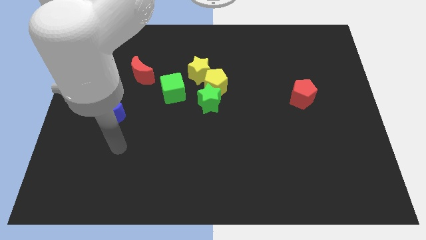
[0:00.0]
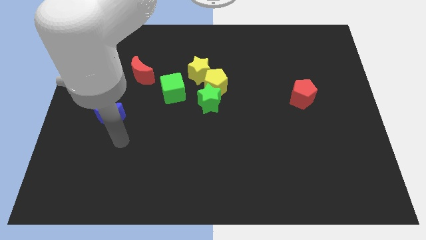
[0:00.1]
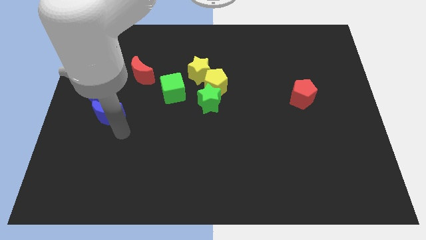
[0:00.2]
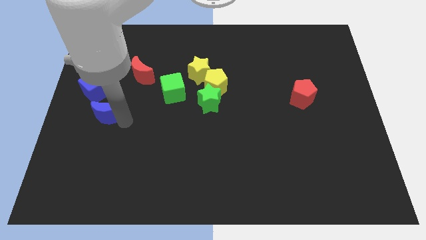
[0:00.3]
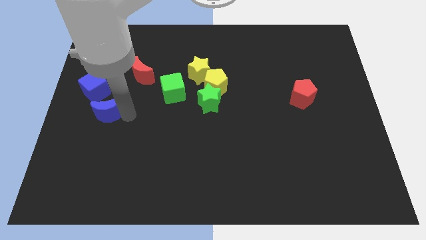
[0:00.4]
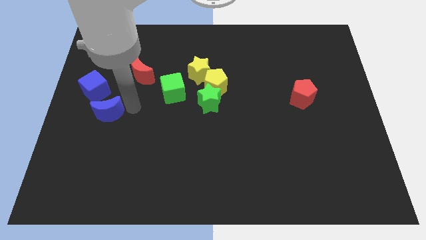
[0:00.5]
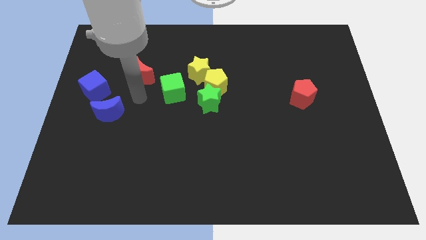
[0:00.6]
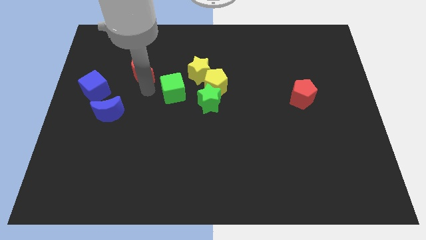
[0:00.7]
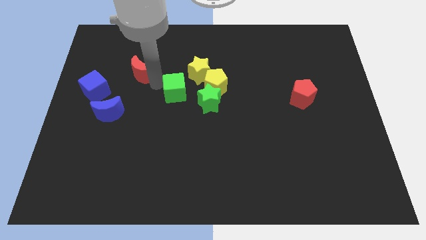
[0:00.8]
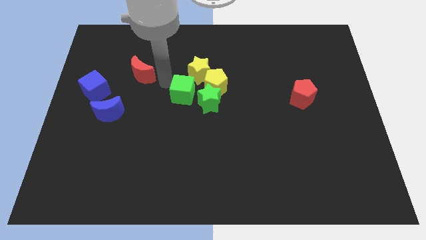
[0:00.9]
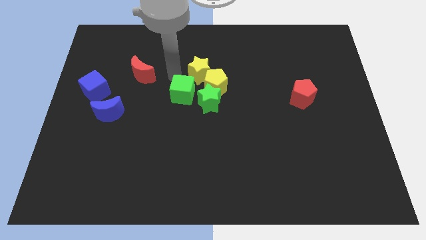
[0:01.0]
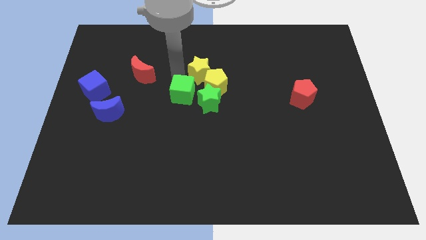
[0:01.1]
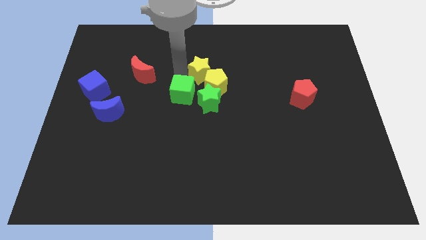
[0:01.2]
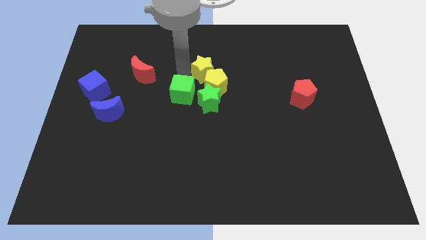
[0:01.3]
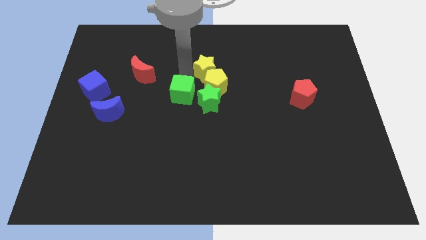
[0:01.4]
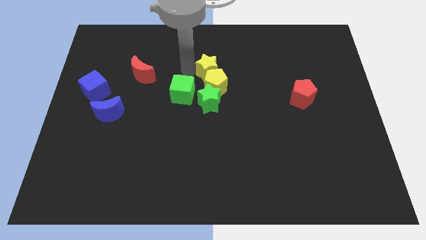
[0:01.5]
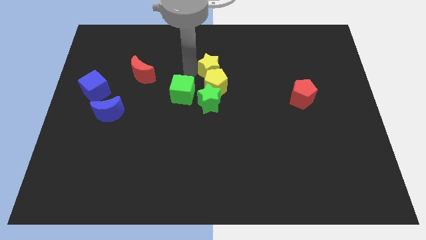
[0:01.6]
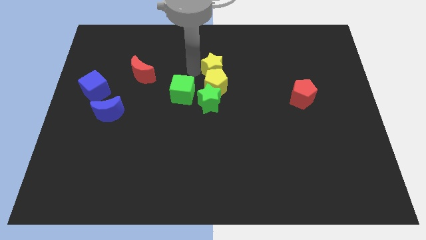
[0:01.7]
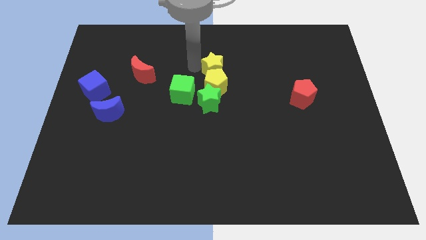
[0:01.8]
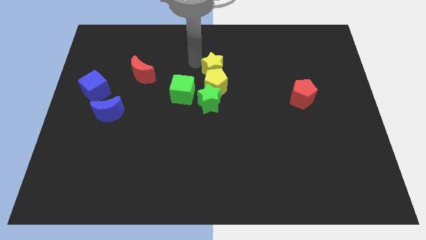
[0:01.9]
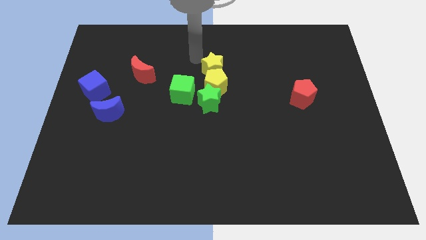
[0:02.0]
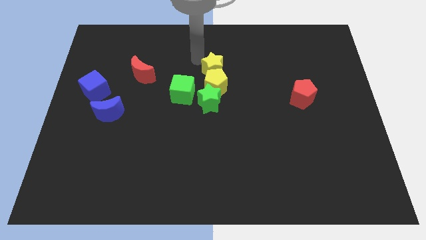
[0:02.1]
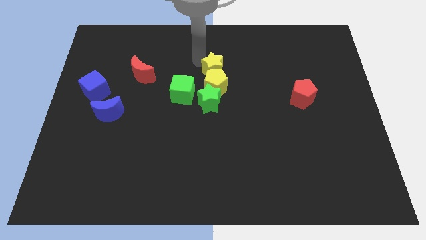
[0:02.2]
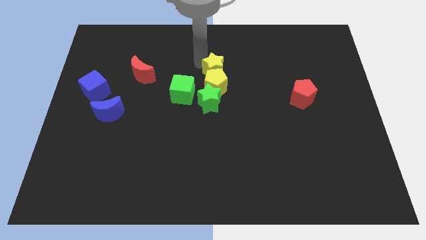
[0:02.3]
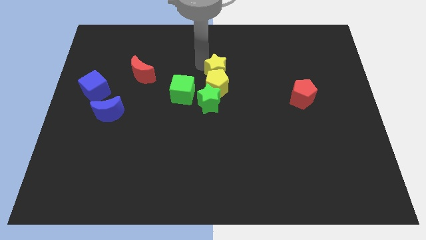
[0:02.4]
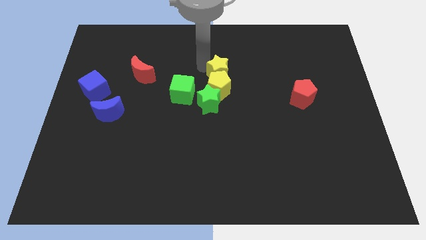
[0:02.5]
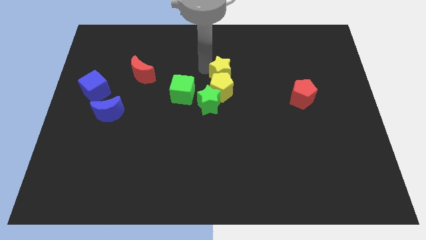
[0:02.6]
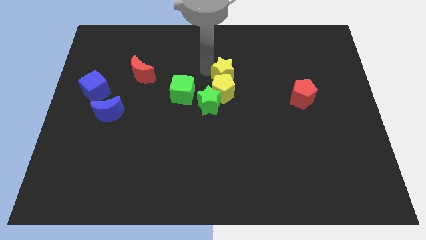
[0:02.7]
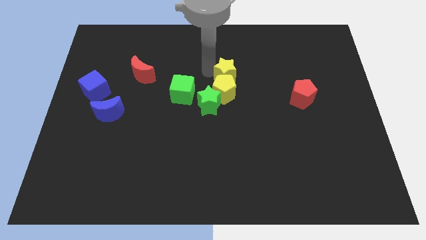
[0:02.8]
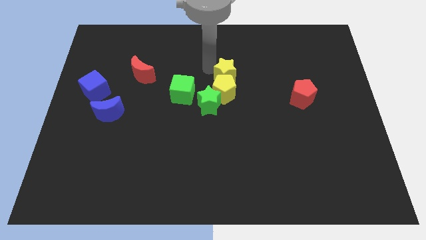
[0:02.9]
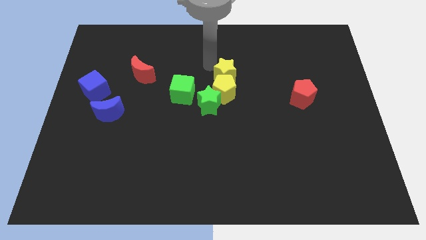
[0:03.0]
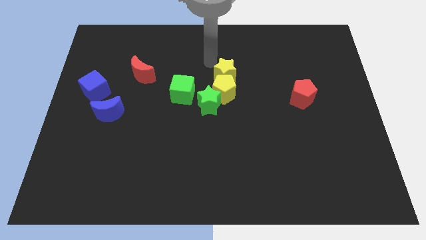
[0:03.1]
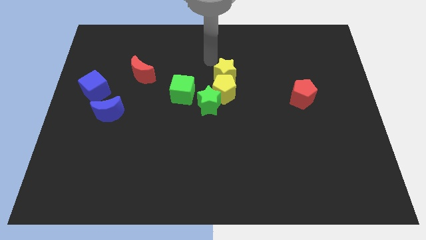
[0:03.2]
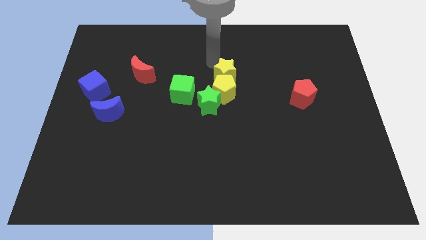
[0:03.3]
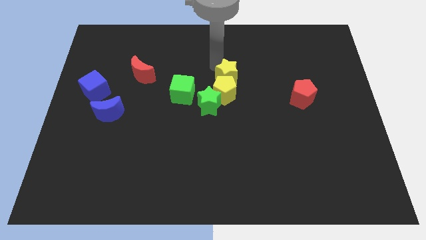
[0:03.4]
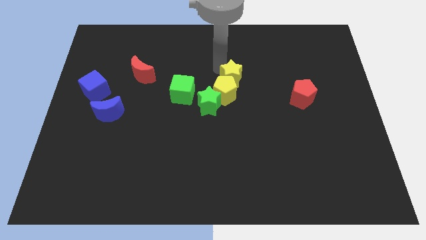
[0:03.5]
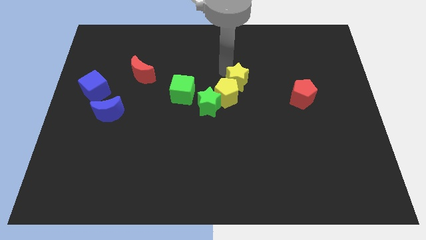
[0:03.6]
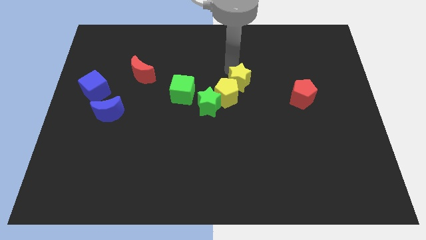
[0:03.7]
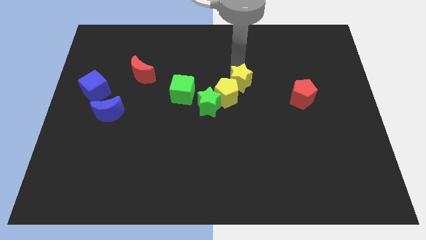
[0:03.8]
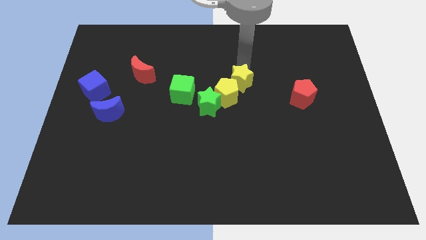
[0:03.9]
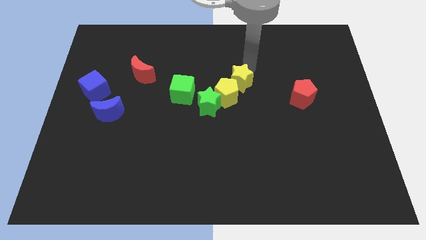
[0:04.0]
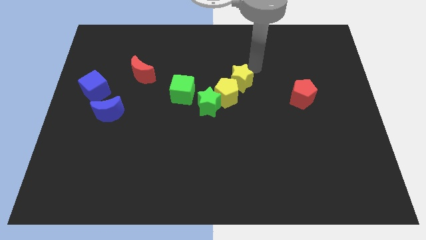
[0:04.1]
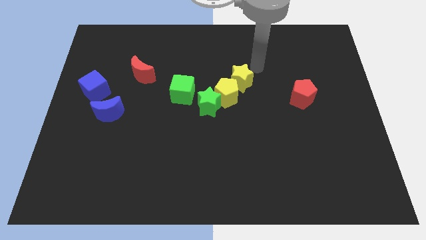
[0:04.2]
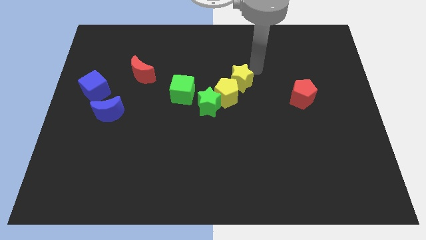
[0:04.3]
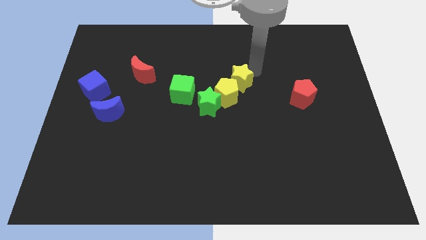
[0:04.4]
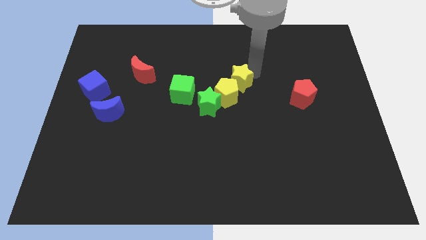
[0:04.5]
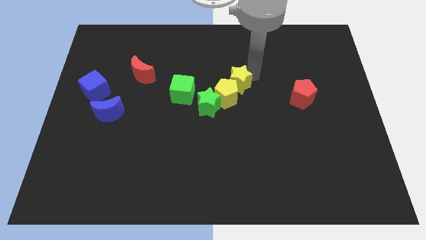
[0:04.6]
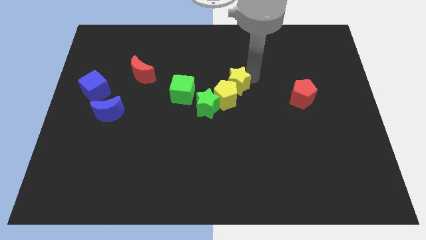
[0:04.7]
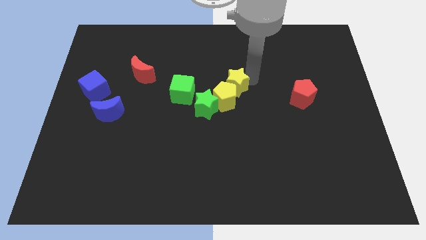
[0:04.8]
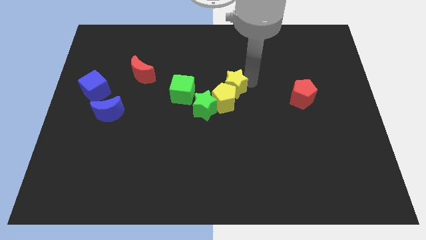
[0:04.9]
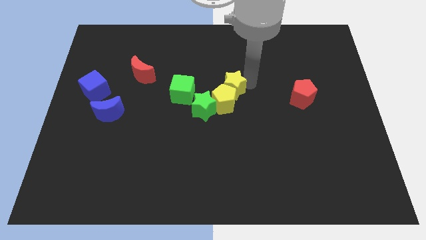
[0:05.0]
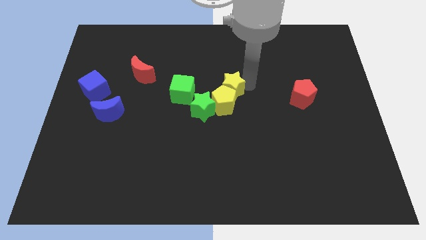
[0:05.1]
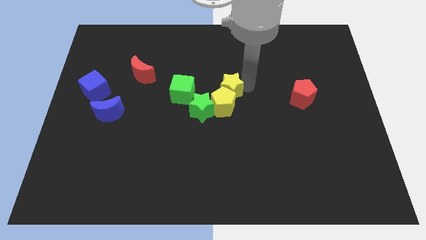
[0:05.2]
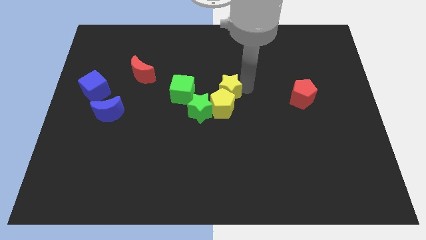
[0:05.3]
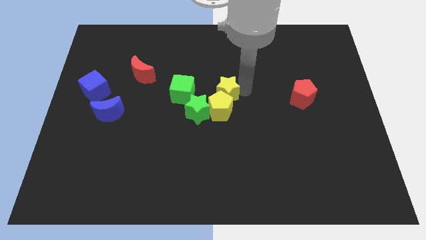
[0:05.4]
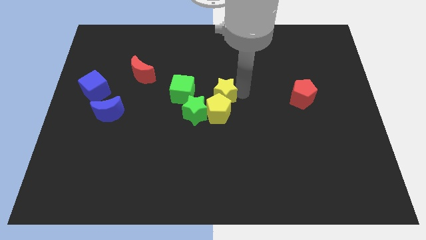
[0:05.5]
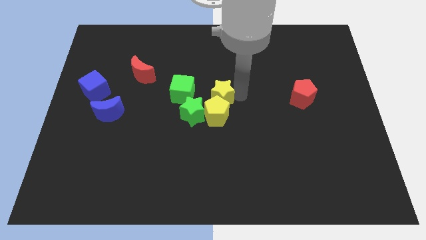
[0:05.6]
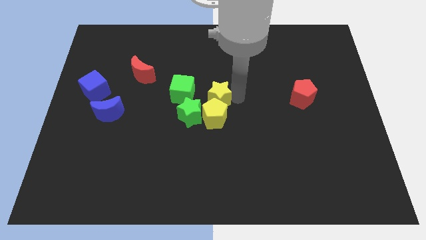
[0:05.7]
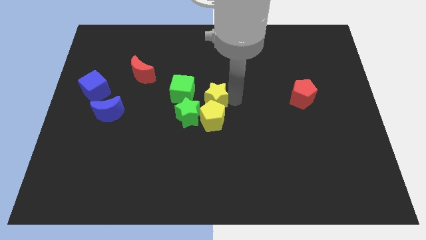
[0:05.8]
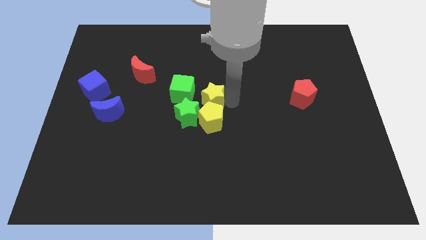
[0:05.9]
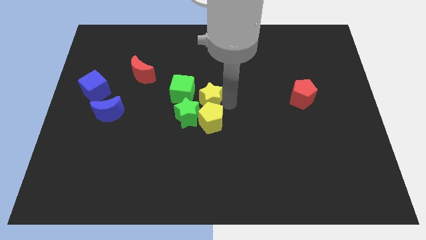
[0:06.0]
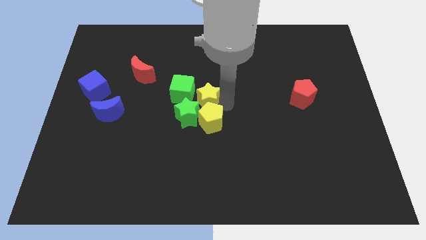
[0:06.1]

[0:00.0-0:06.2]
move the yellow star towards the green star

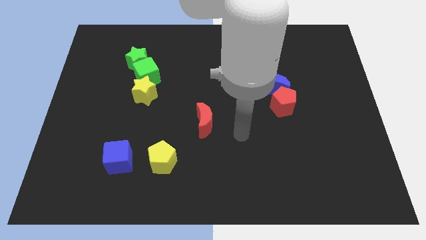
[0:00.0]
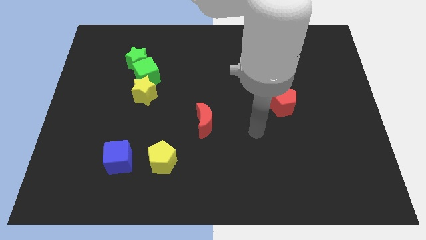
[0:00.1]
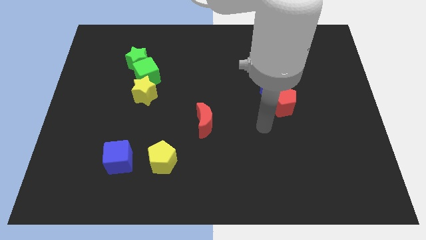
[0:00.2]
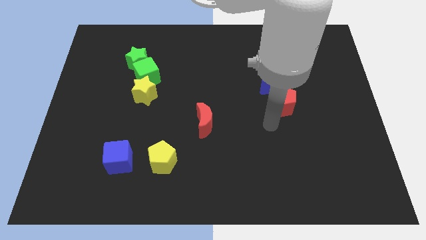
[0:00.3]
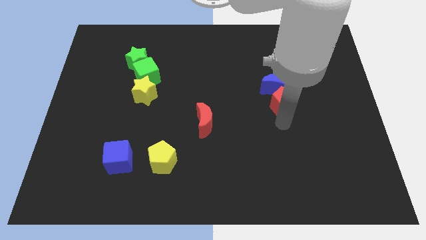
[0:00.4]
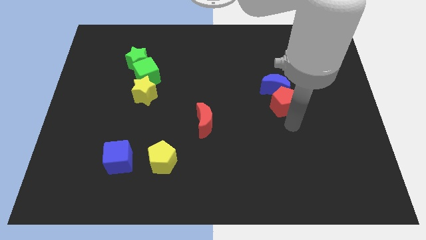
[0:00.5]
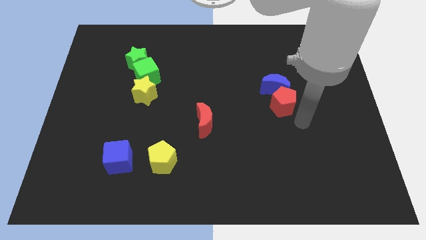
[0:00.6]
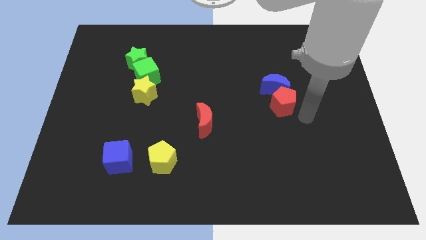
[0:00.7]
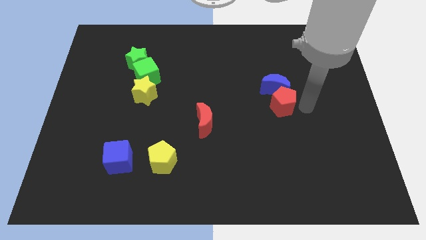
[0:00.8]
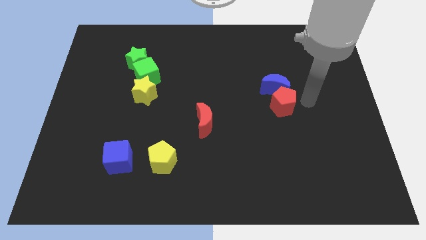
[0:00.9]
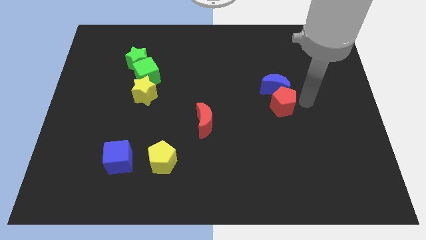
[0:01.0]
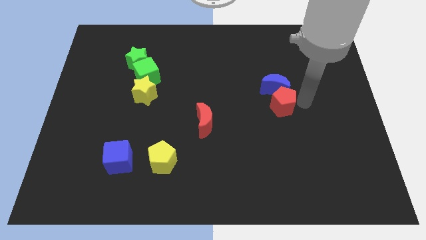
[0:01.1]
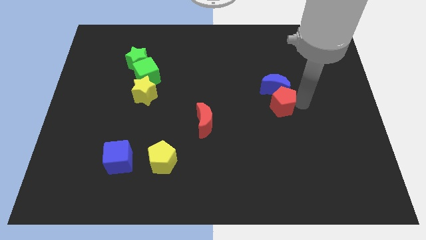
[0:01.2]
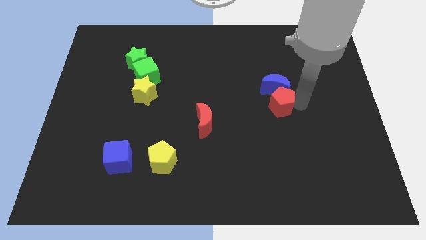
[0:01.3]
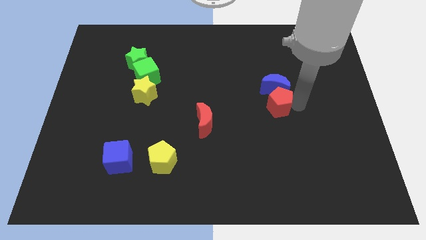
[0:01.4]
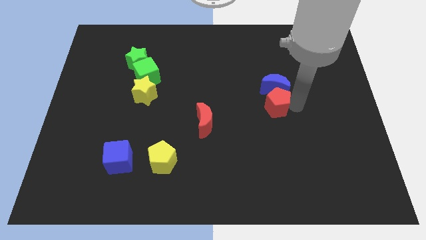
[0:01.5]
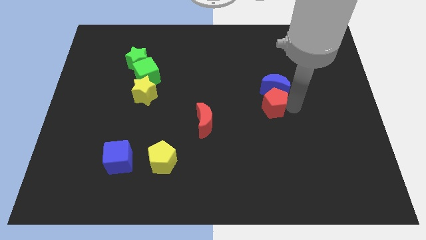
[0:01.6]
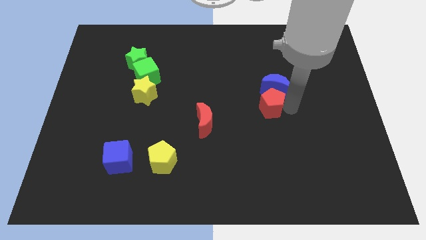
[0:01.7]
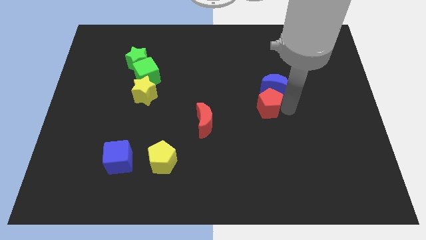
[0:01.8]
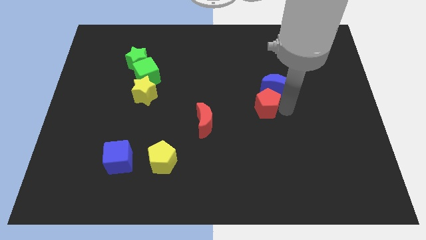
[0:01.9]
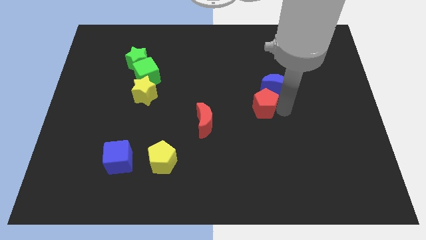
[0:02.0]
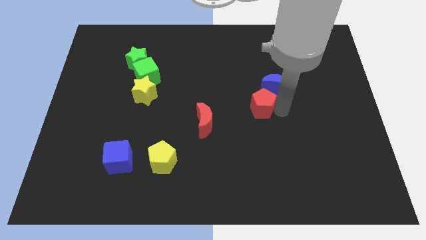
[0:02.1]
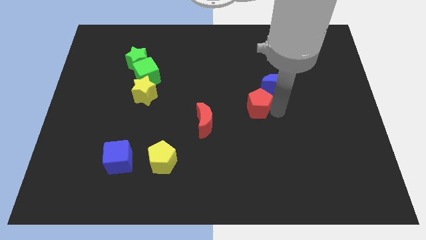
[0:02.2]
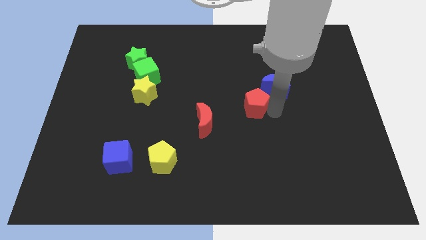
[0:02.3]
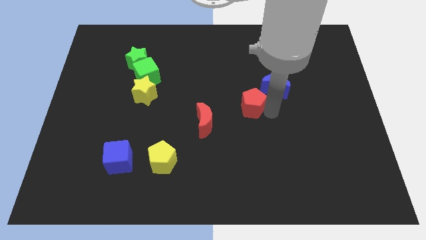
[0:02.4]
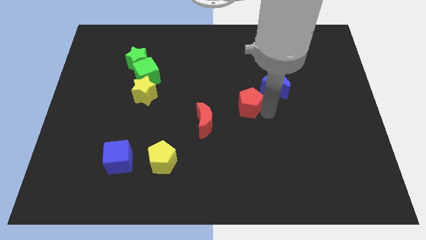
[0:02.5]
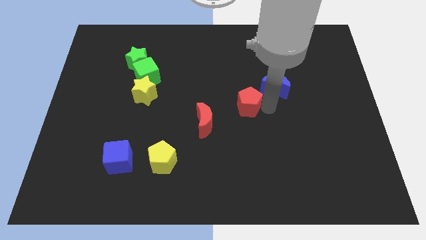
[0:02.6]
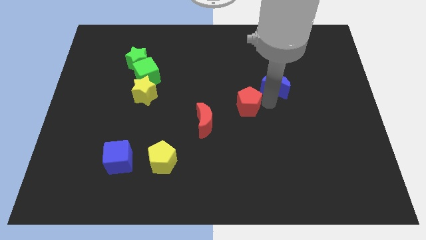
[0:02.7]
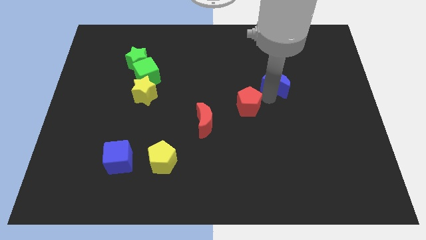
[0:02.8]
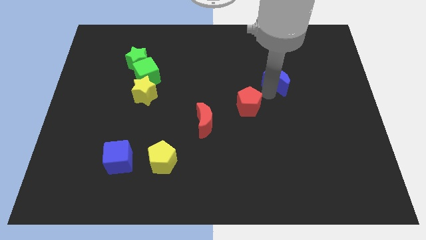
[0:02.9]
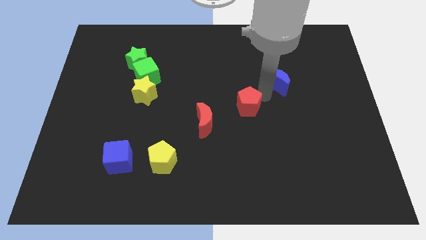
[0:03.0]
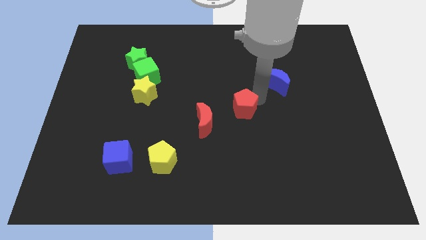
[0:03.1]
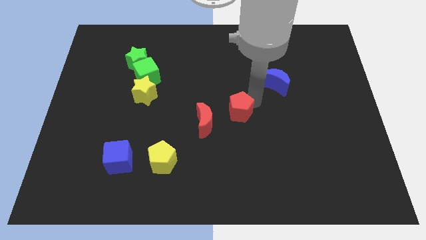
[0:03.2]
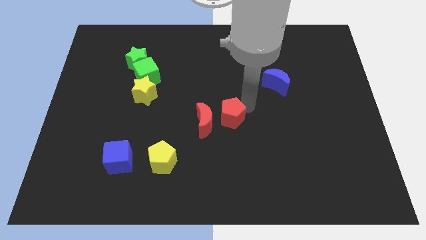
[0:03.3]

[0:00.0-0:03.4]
slide the red pentagon towards the red moon
